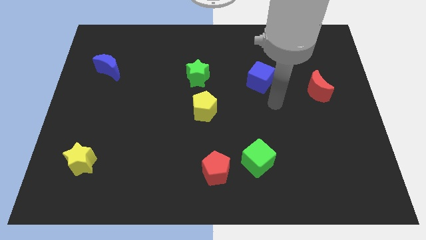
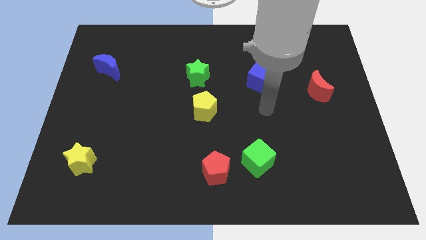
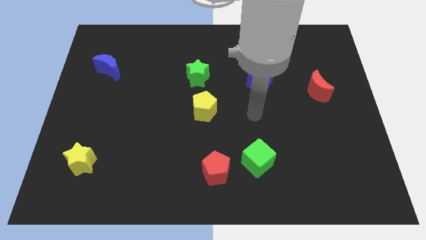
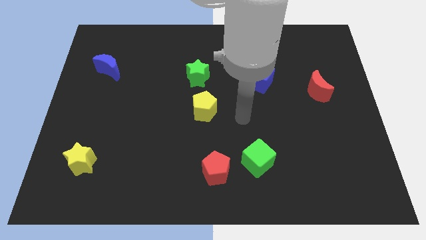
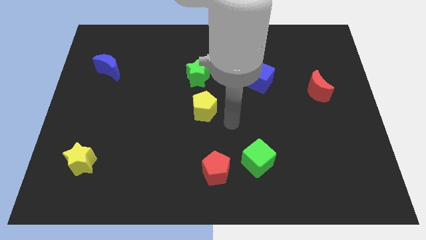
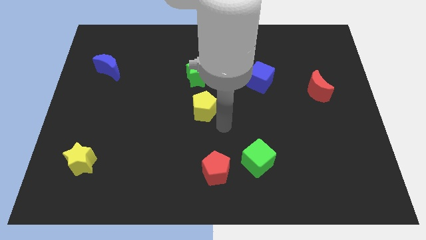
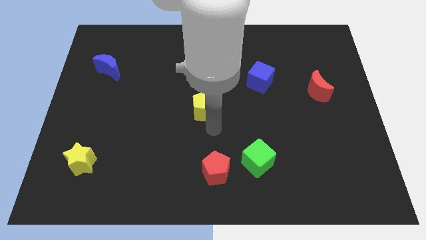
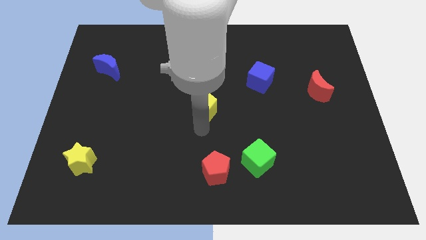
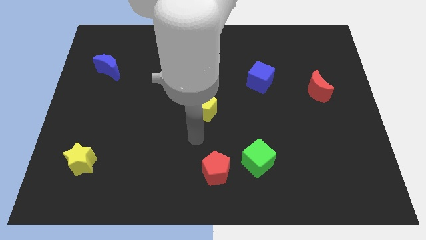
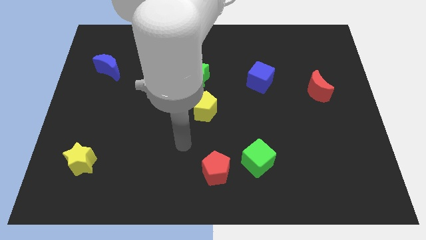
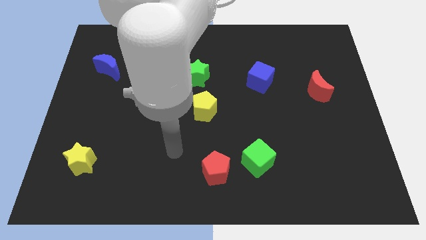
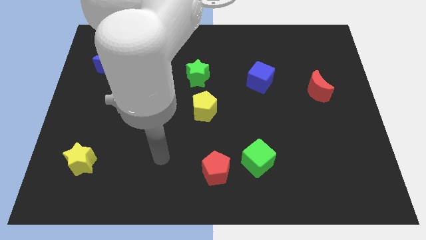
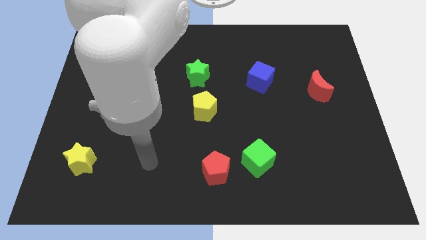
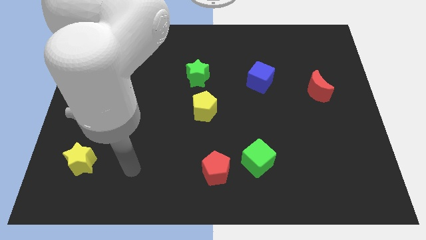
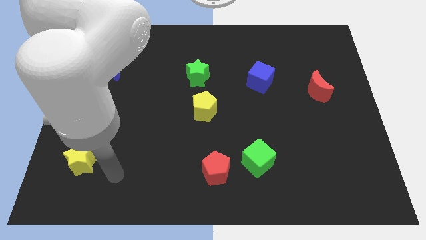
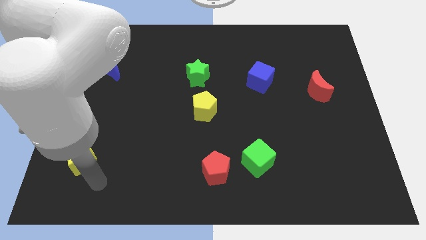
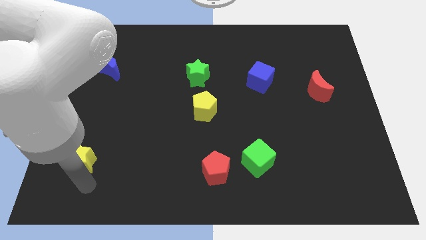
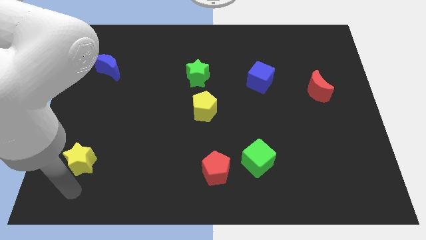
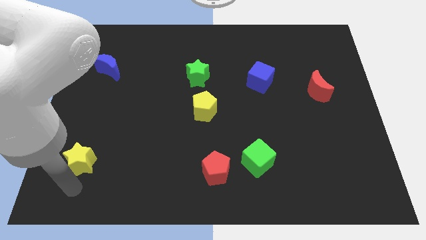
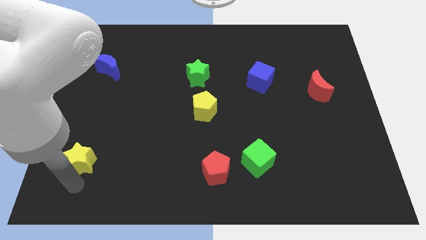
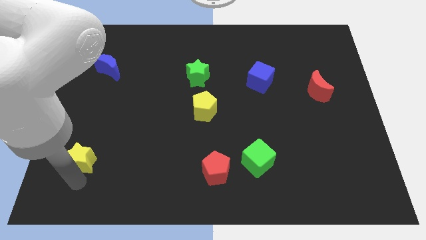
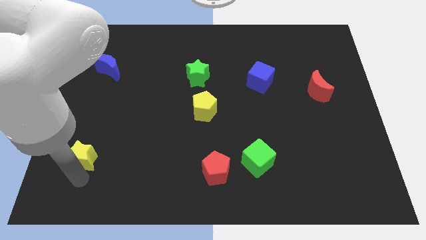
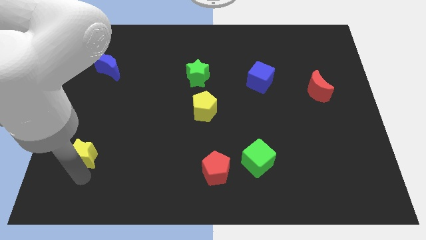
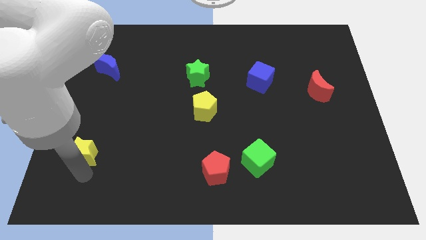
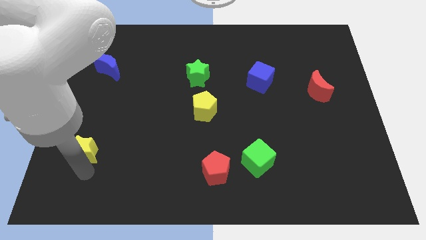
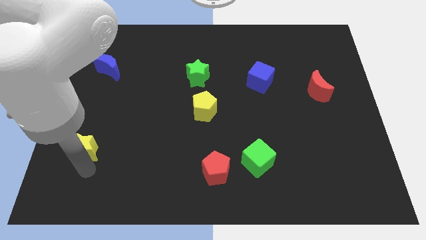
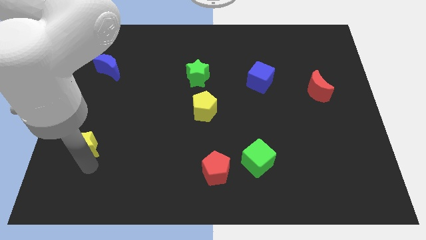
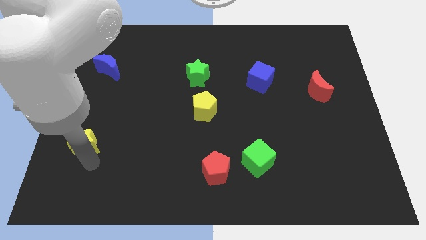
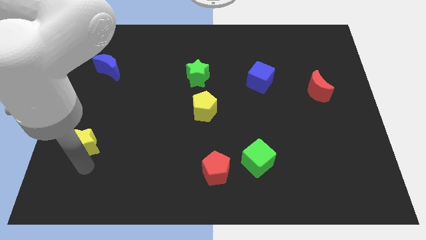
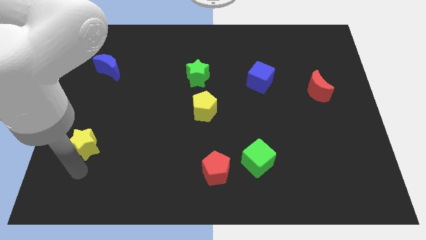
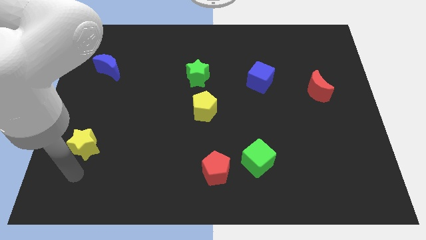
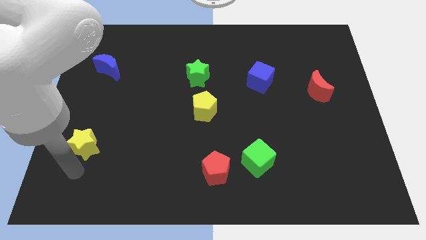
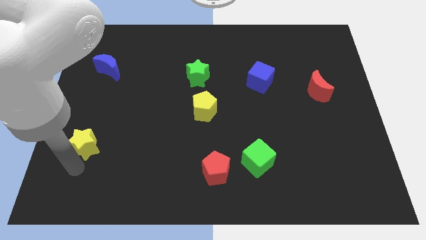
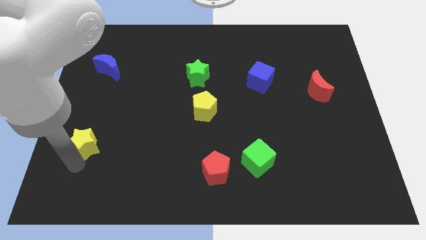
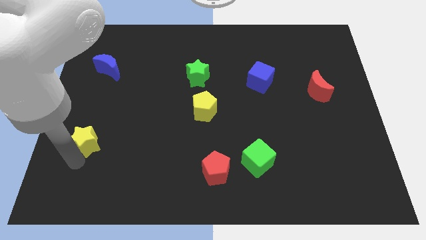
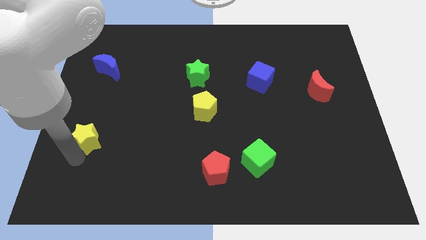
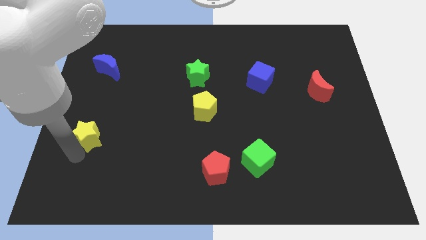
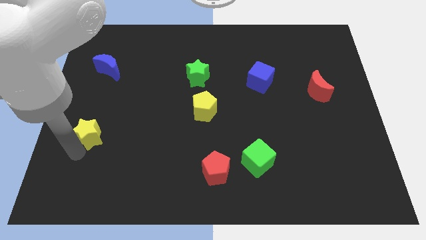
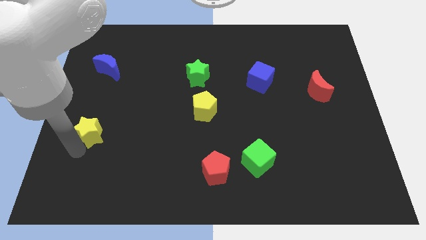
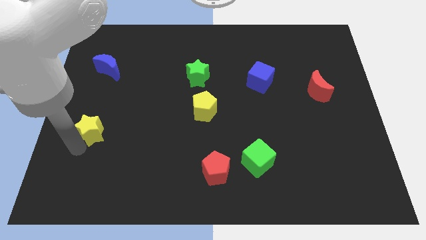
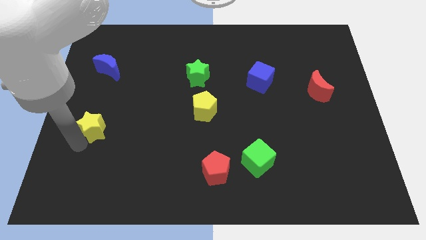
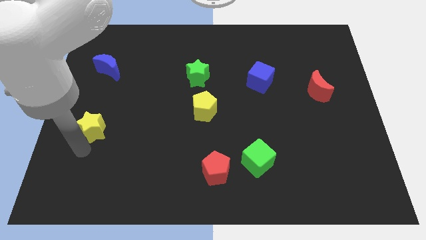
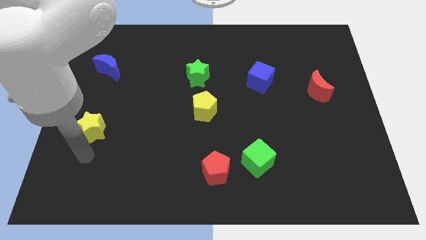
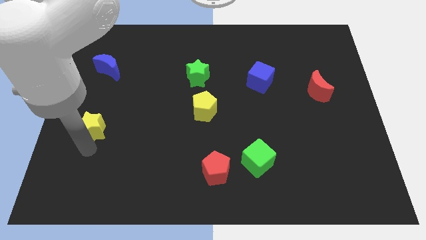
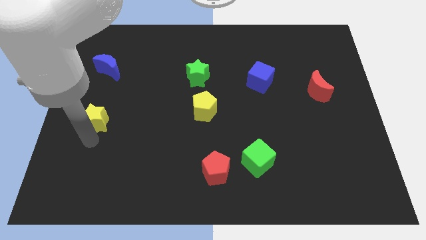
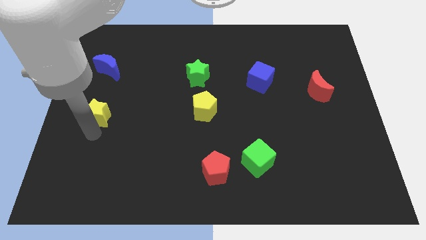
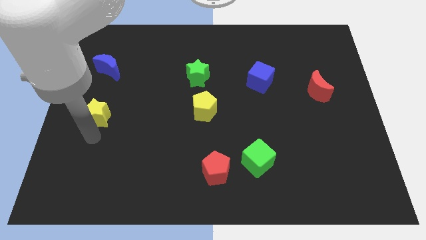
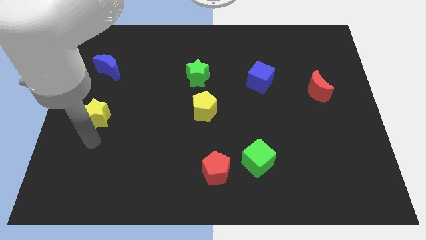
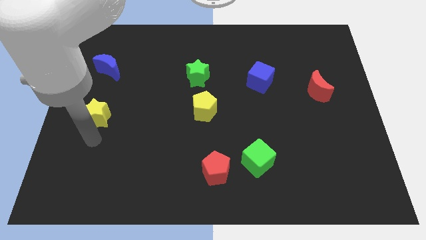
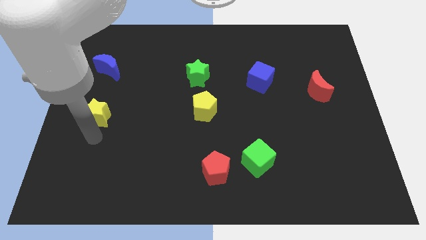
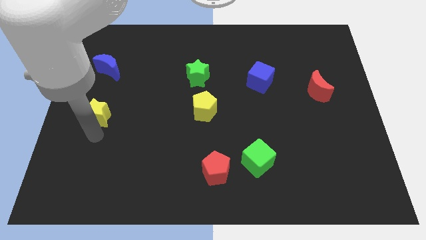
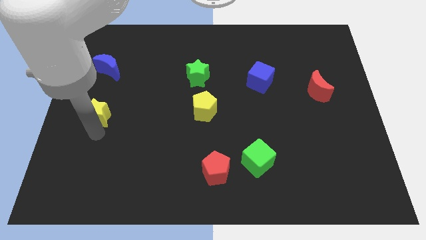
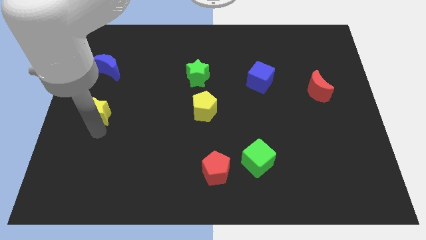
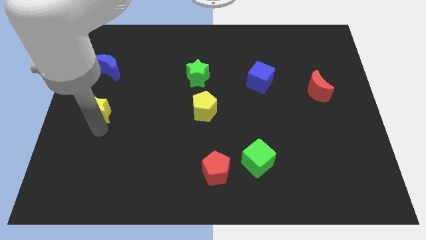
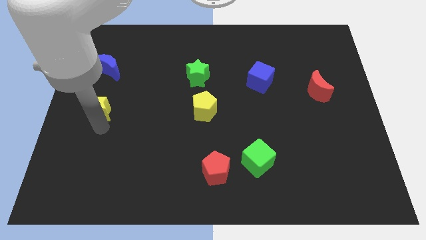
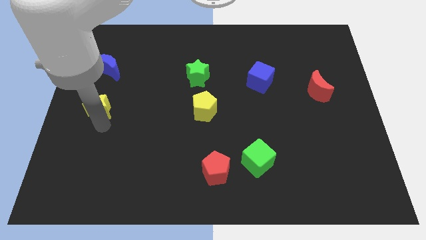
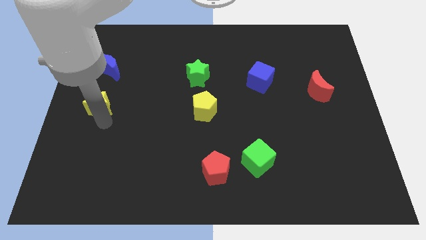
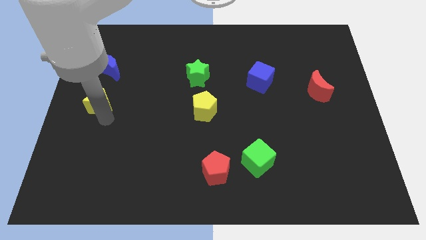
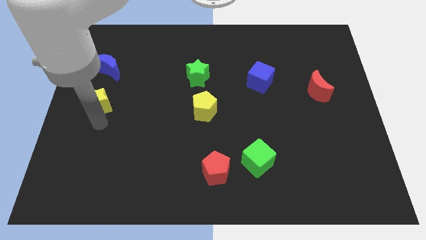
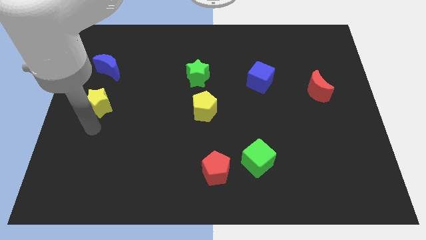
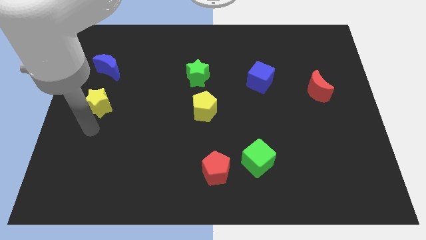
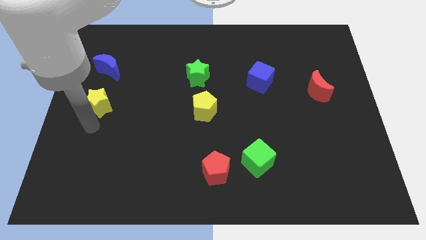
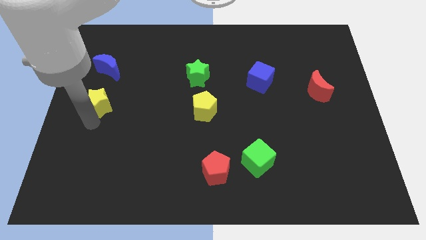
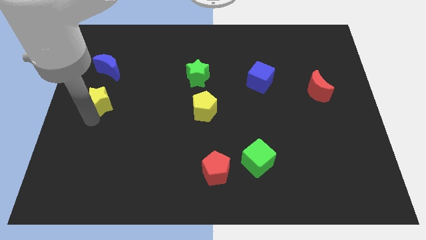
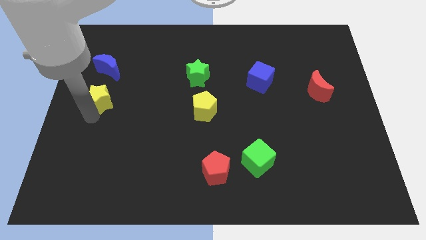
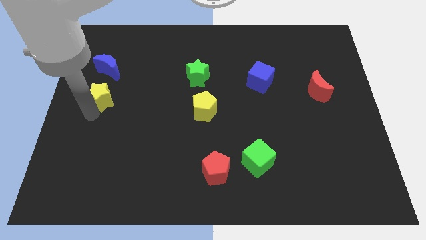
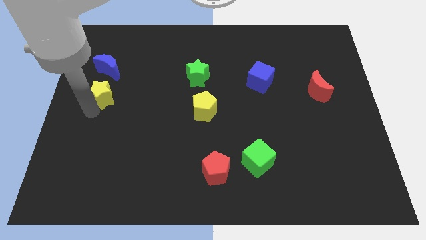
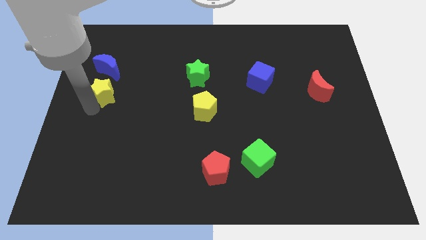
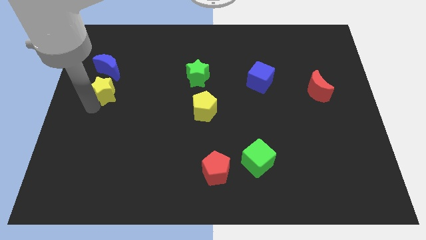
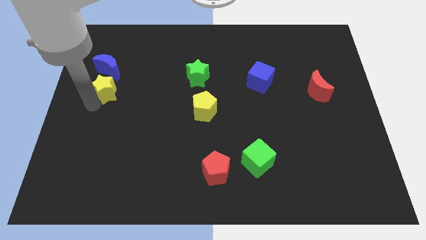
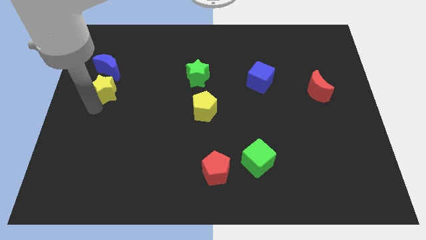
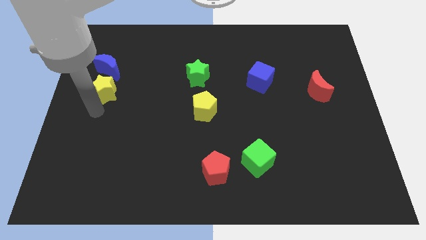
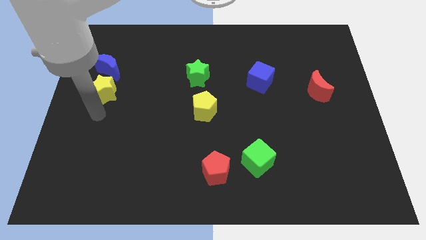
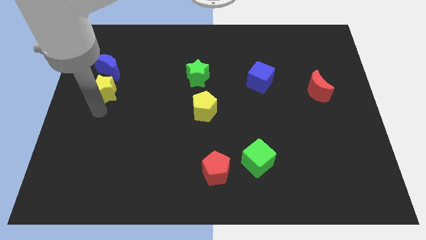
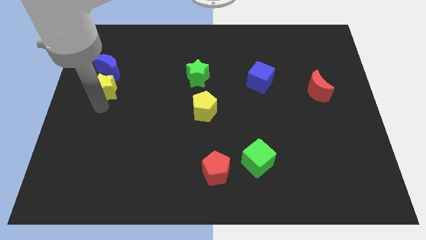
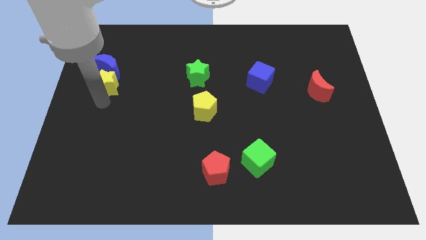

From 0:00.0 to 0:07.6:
push the yellow star next to the blue moon
